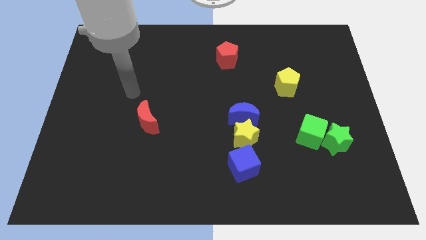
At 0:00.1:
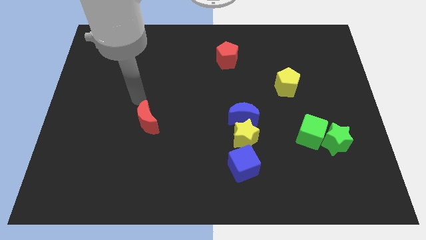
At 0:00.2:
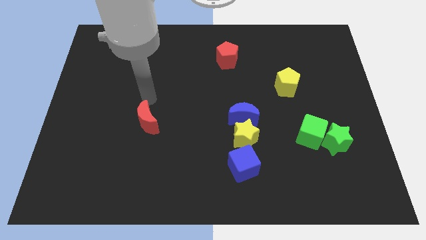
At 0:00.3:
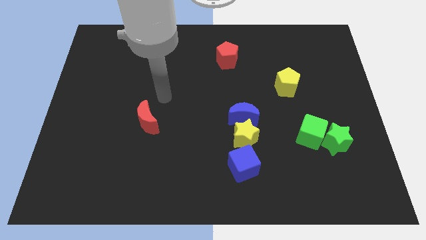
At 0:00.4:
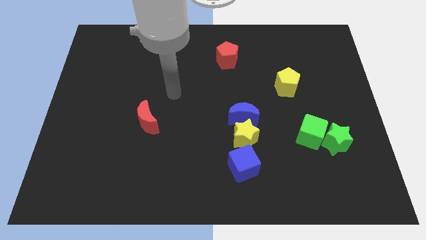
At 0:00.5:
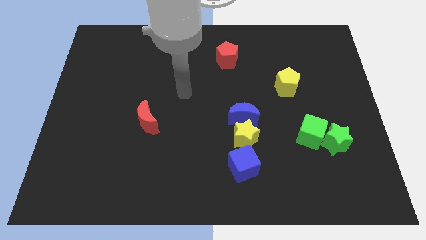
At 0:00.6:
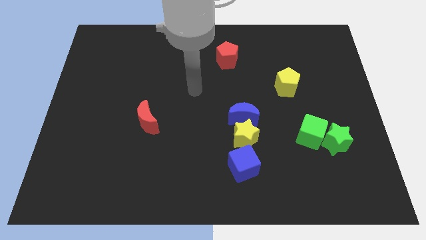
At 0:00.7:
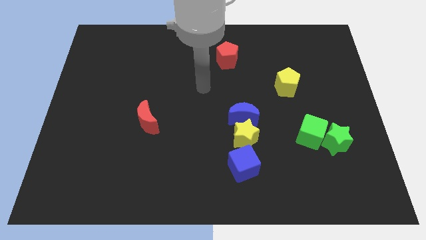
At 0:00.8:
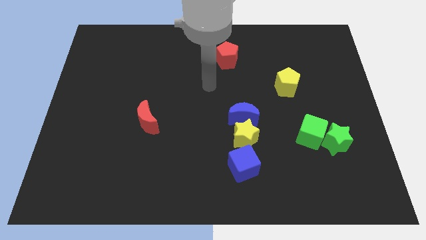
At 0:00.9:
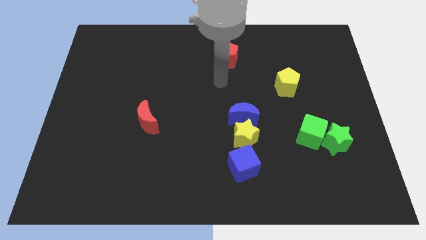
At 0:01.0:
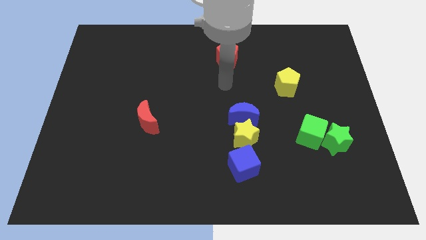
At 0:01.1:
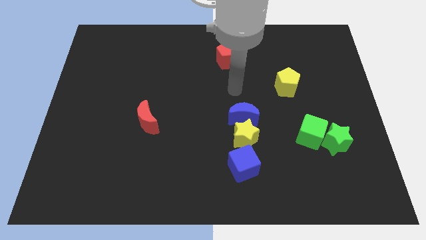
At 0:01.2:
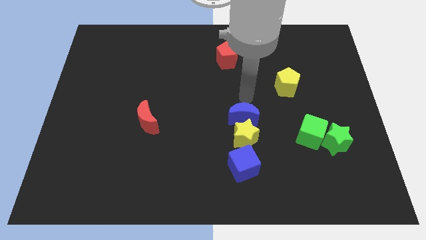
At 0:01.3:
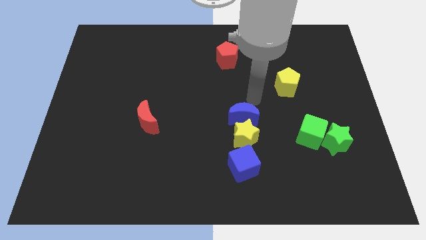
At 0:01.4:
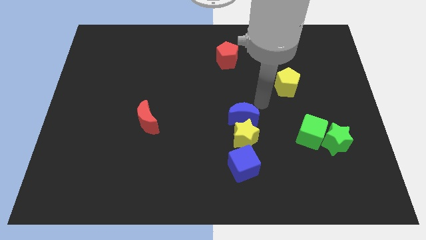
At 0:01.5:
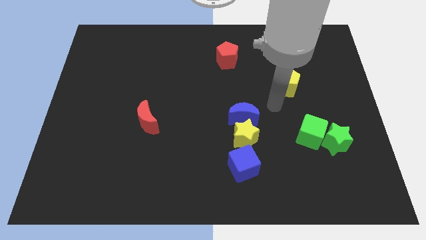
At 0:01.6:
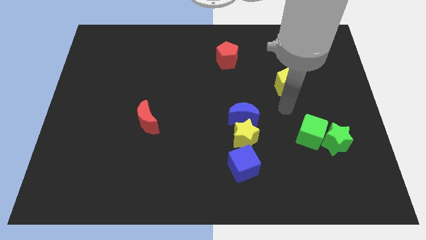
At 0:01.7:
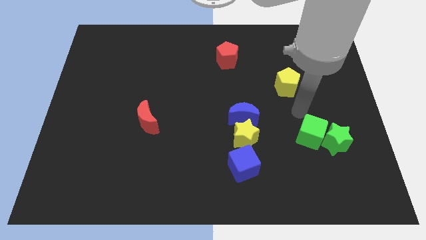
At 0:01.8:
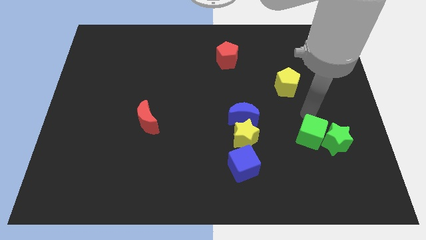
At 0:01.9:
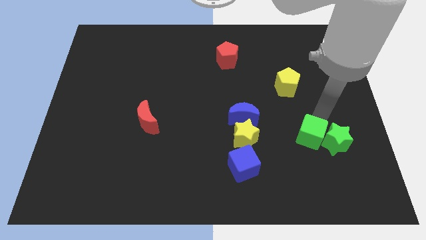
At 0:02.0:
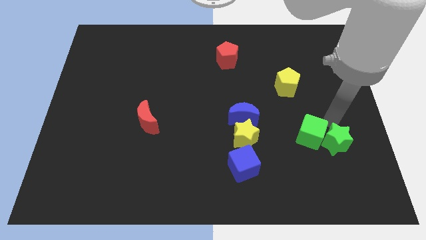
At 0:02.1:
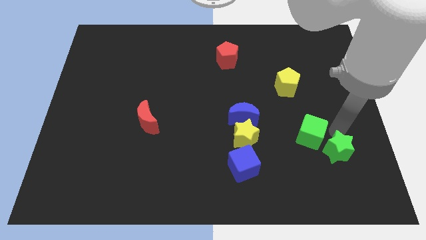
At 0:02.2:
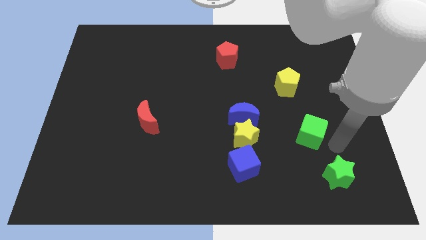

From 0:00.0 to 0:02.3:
separate the green cube from the green star

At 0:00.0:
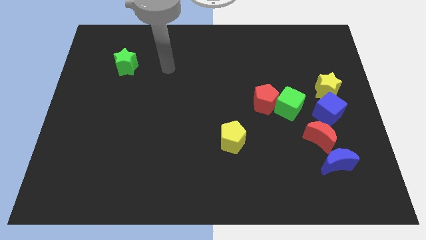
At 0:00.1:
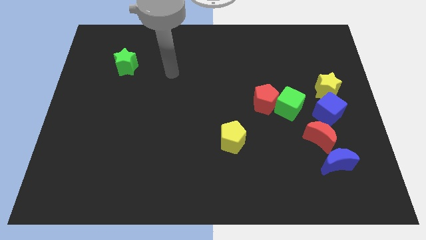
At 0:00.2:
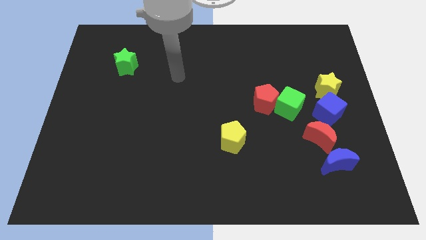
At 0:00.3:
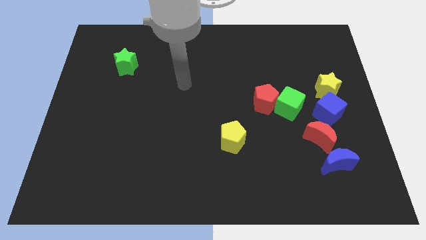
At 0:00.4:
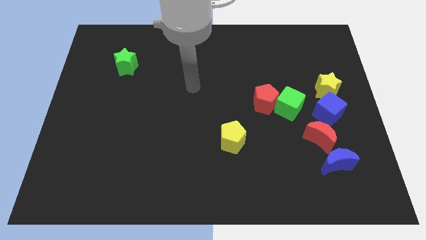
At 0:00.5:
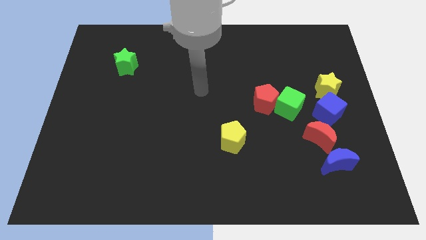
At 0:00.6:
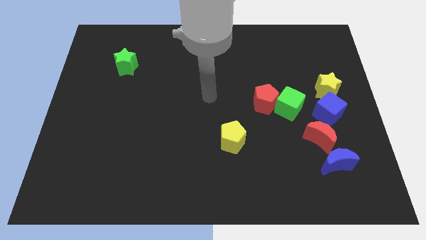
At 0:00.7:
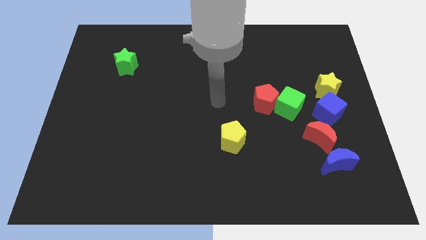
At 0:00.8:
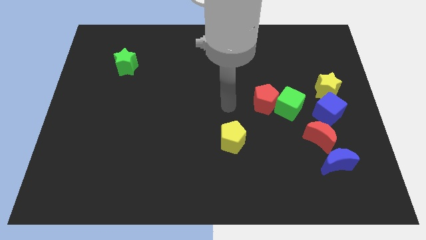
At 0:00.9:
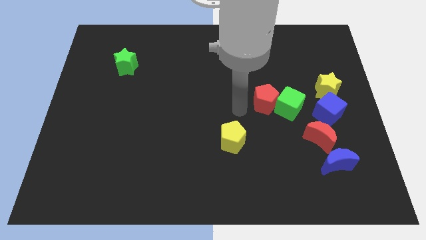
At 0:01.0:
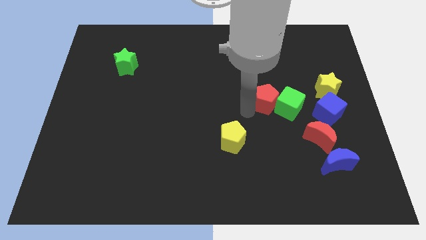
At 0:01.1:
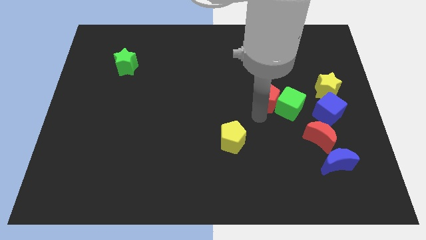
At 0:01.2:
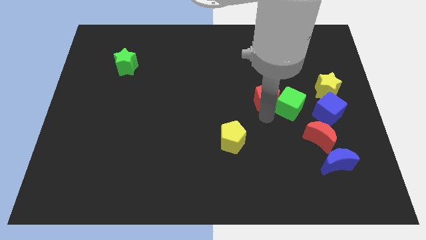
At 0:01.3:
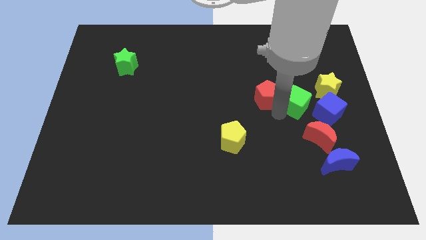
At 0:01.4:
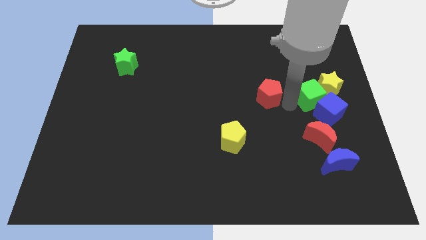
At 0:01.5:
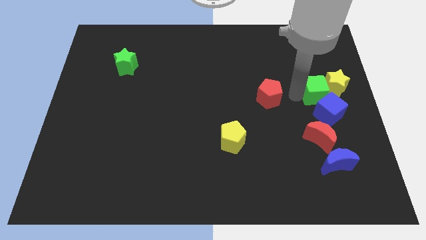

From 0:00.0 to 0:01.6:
pull the red pentagon apart from the green cube

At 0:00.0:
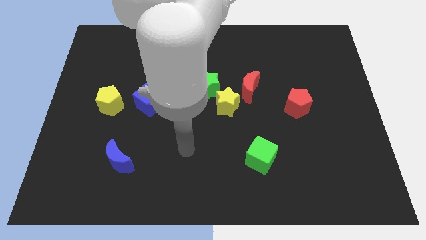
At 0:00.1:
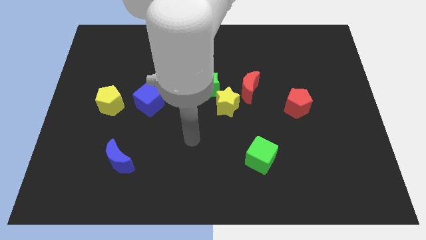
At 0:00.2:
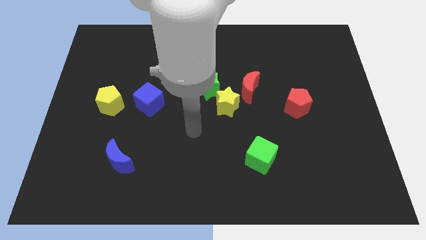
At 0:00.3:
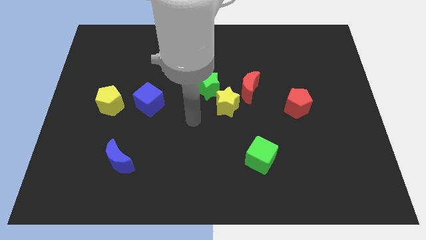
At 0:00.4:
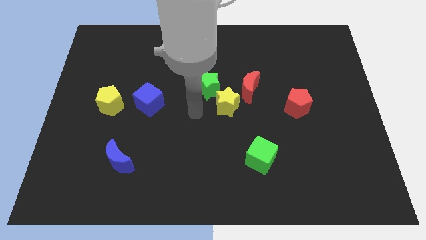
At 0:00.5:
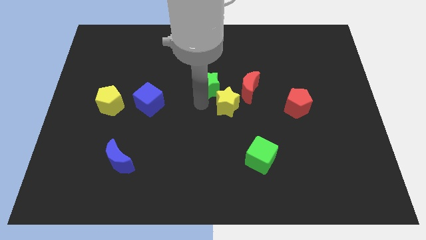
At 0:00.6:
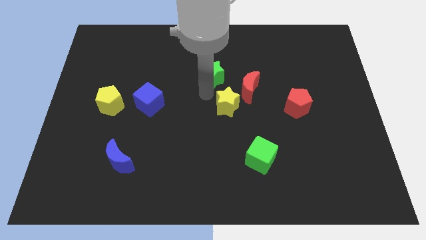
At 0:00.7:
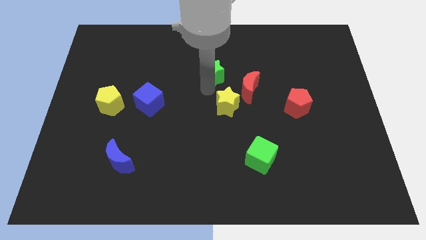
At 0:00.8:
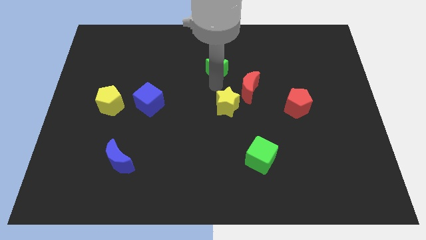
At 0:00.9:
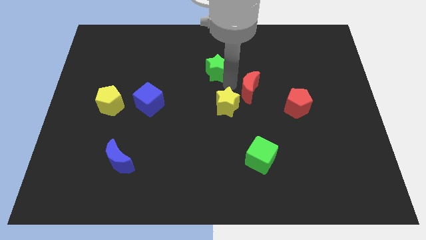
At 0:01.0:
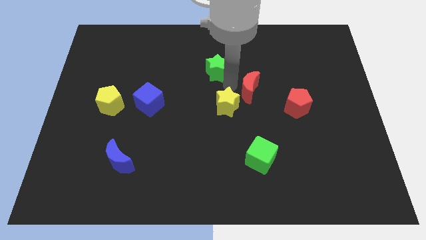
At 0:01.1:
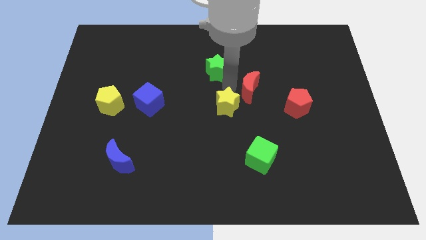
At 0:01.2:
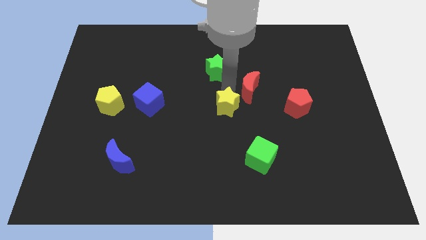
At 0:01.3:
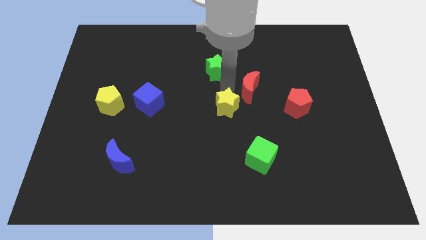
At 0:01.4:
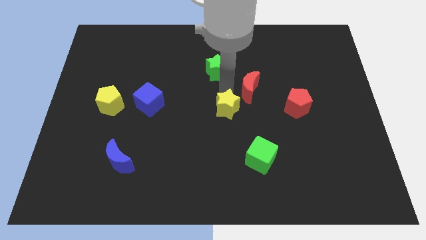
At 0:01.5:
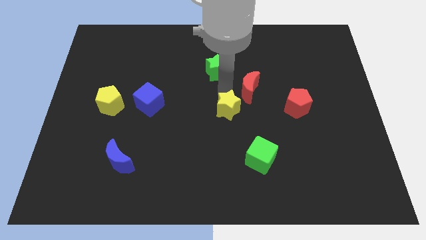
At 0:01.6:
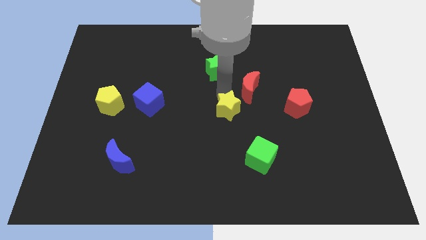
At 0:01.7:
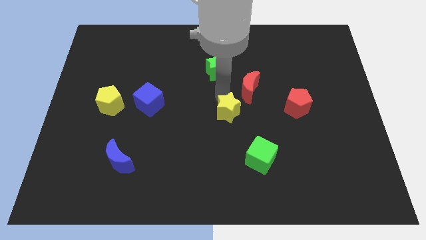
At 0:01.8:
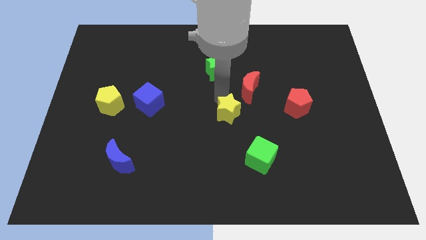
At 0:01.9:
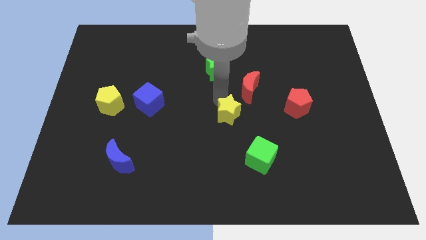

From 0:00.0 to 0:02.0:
separate the yellow star from the green star and red moon

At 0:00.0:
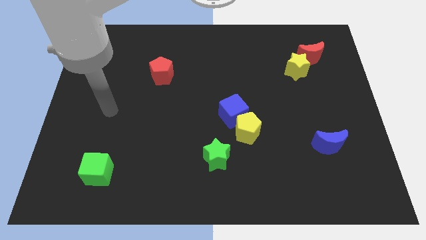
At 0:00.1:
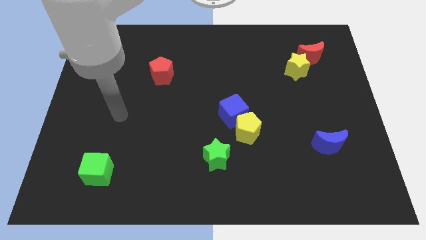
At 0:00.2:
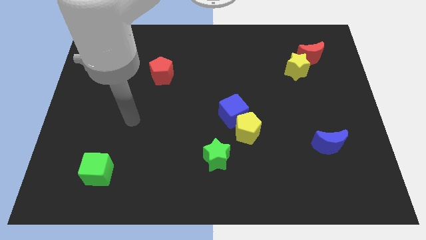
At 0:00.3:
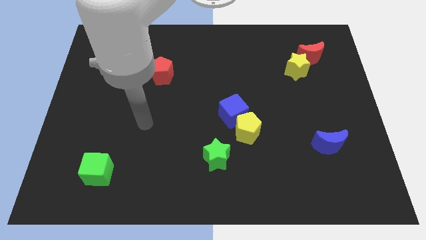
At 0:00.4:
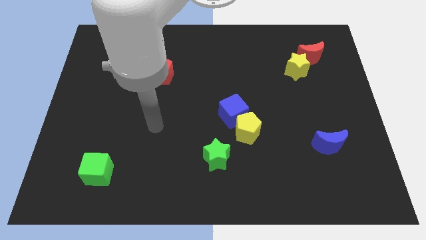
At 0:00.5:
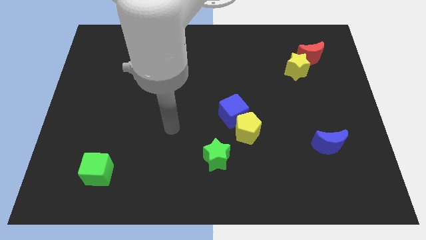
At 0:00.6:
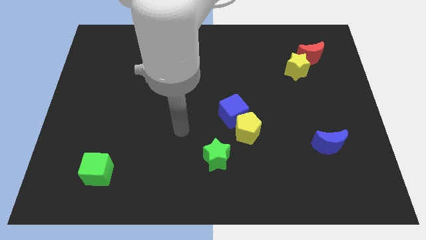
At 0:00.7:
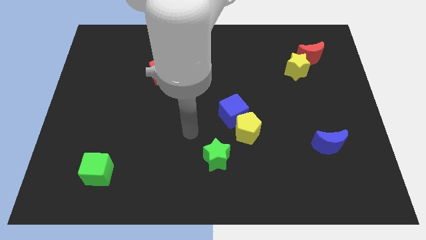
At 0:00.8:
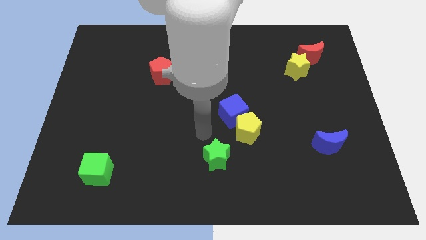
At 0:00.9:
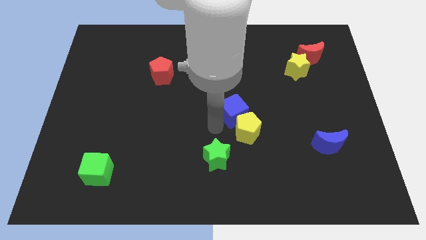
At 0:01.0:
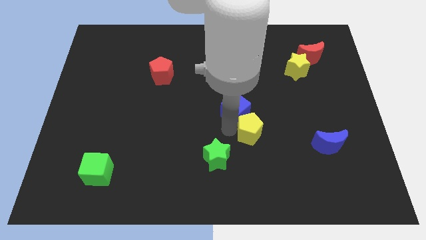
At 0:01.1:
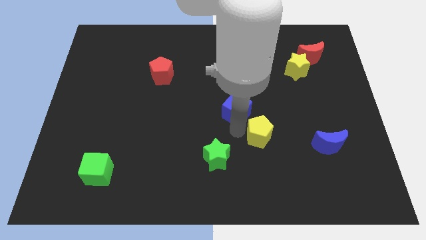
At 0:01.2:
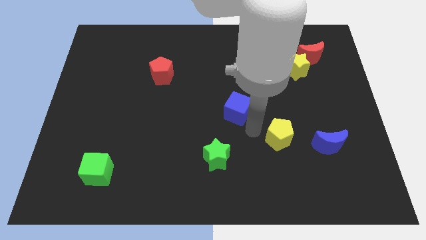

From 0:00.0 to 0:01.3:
separate the blue cube from the yellow pentagon

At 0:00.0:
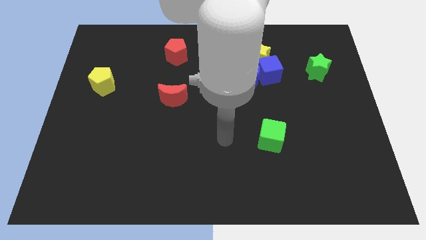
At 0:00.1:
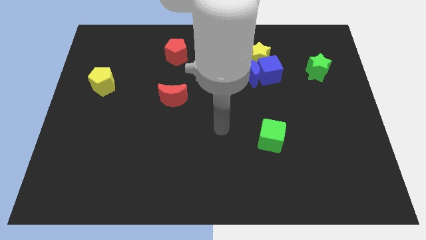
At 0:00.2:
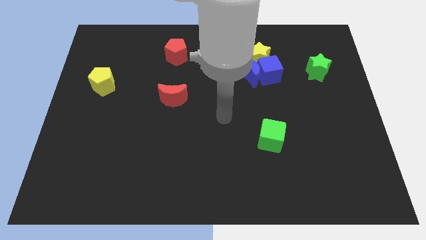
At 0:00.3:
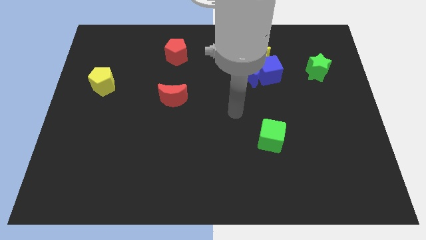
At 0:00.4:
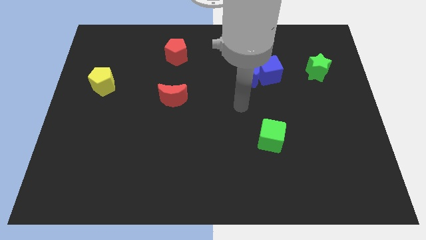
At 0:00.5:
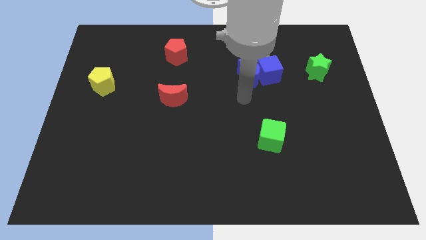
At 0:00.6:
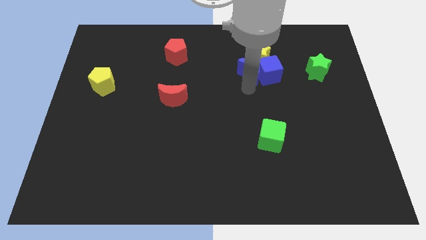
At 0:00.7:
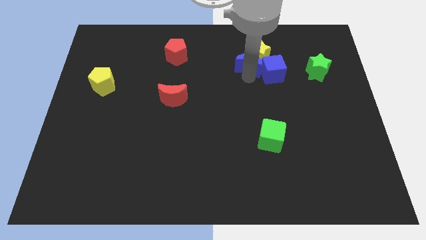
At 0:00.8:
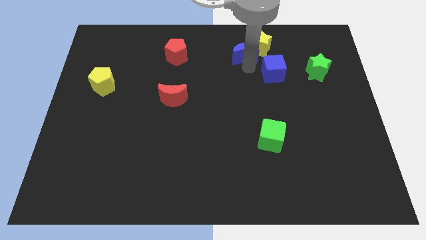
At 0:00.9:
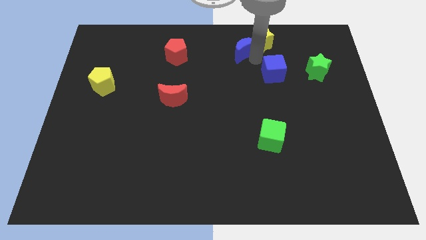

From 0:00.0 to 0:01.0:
separate the blue cube from the blue moon and yellow star

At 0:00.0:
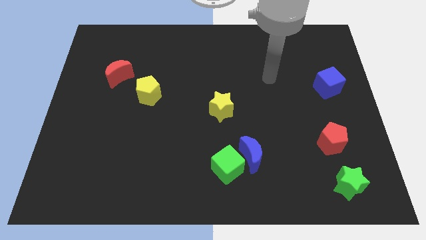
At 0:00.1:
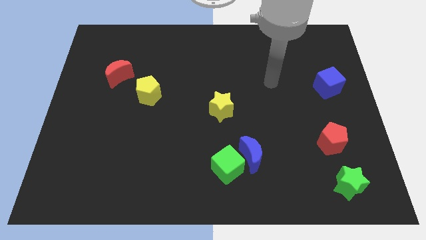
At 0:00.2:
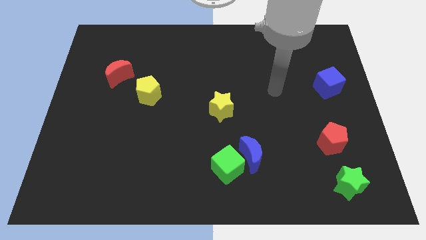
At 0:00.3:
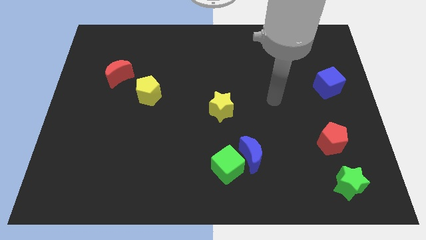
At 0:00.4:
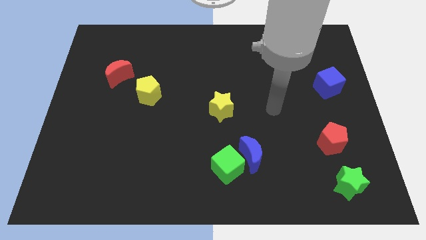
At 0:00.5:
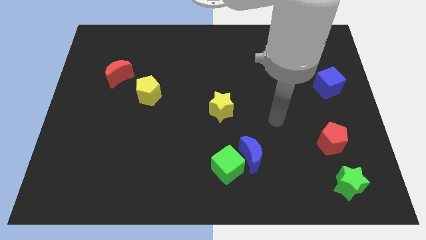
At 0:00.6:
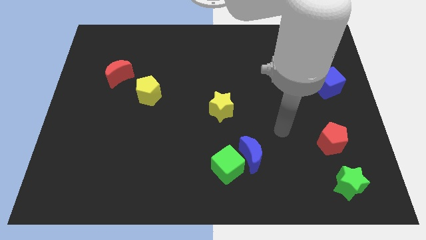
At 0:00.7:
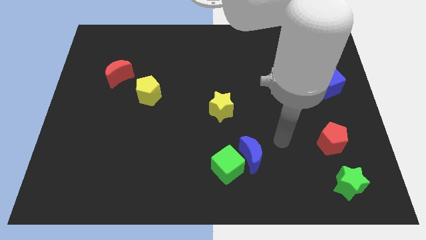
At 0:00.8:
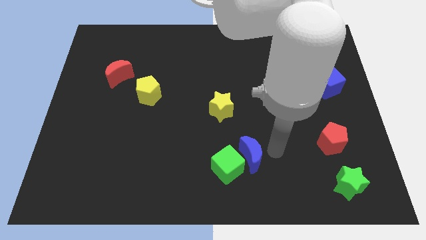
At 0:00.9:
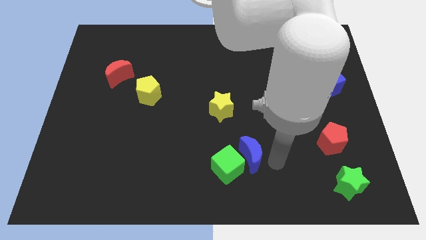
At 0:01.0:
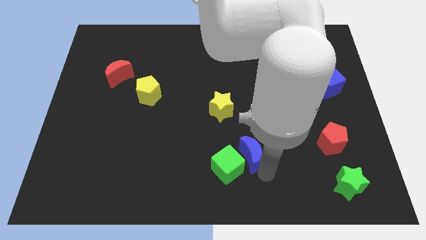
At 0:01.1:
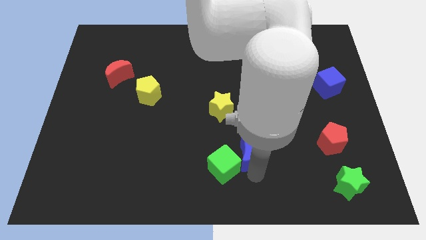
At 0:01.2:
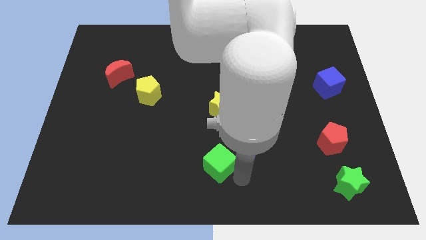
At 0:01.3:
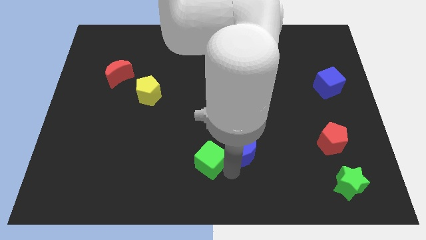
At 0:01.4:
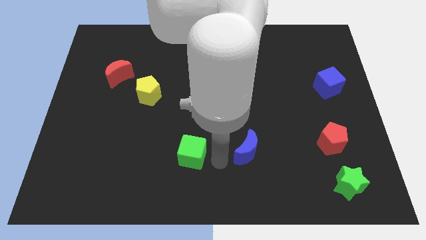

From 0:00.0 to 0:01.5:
pull the blue moon apart from the green cube
